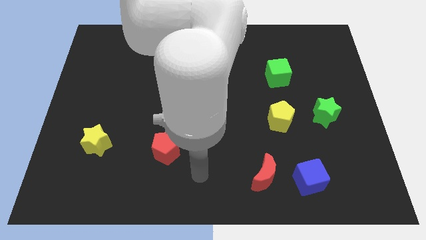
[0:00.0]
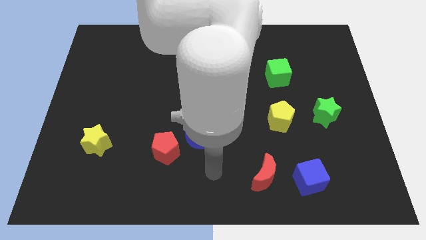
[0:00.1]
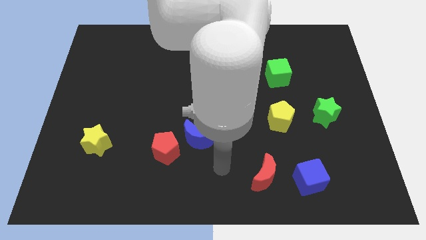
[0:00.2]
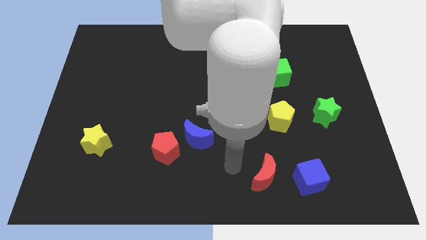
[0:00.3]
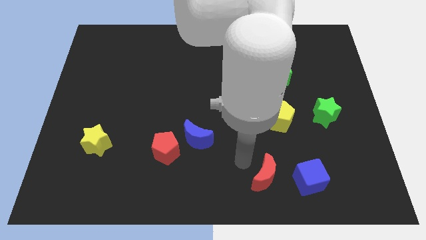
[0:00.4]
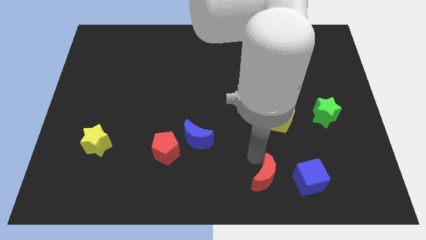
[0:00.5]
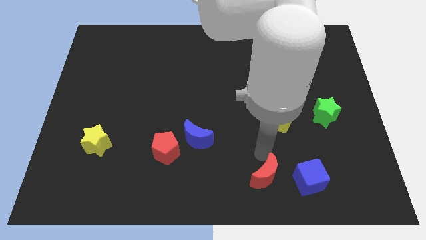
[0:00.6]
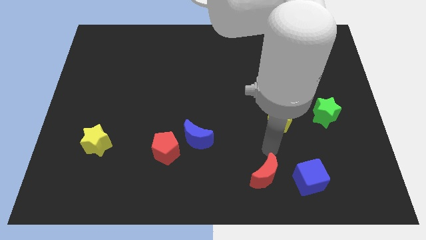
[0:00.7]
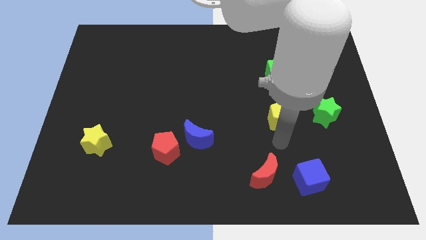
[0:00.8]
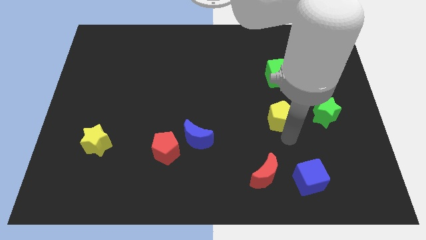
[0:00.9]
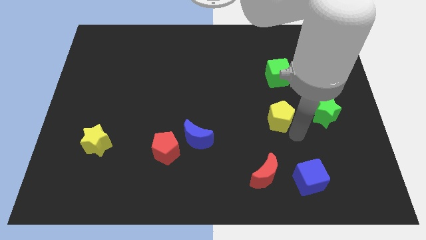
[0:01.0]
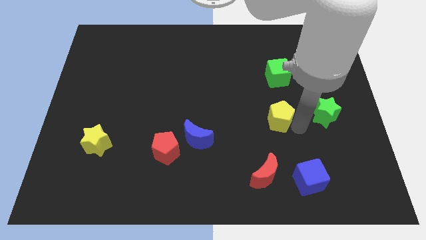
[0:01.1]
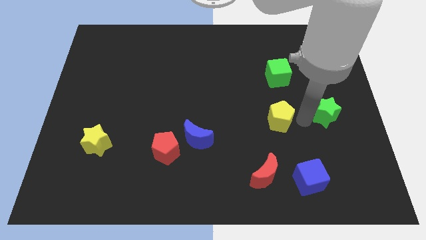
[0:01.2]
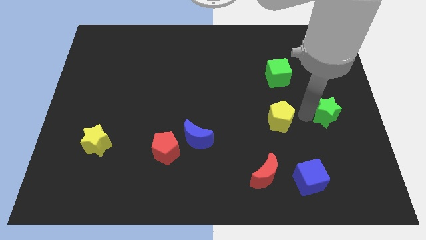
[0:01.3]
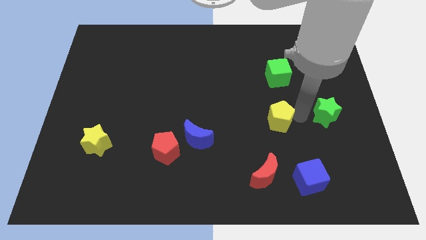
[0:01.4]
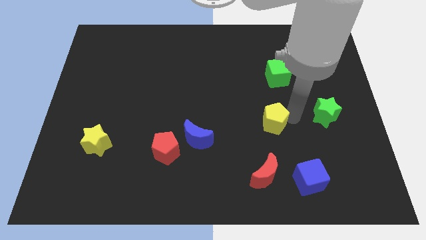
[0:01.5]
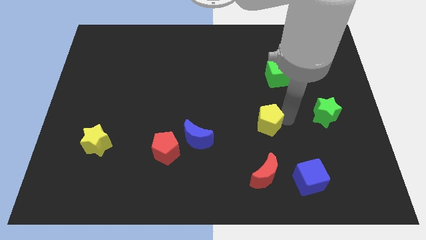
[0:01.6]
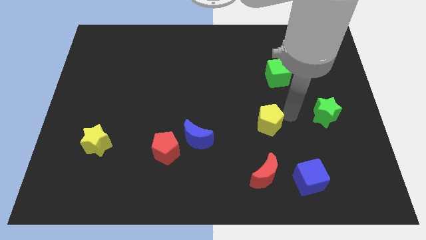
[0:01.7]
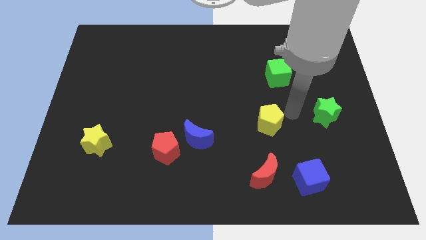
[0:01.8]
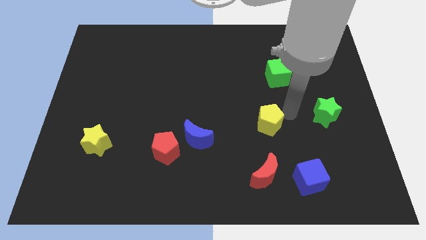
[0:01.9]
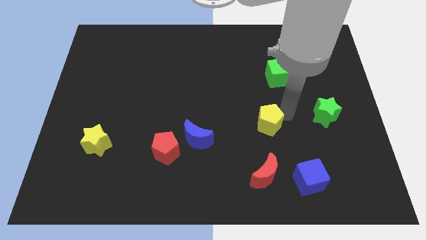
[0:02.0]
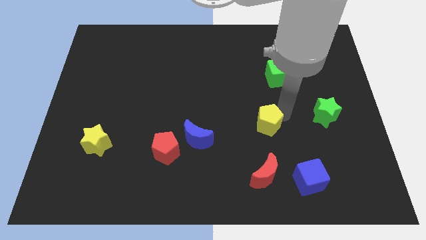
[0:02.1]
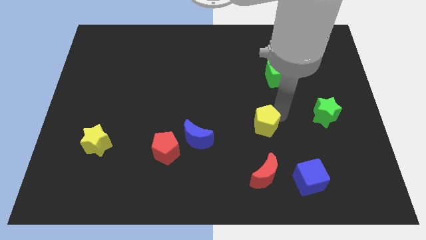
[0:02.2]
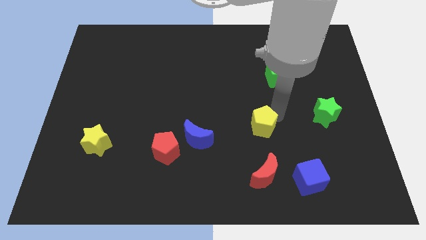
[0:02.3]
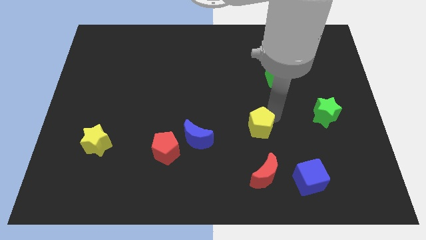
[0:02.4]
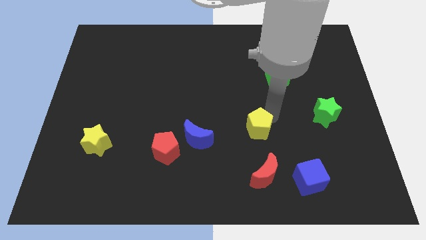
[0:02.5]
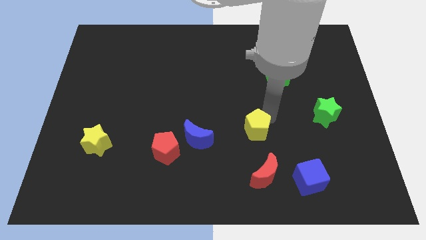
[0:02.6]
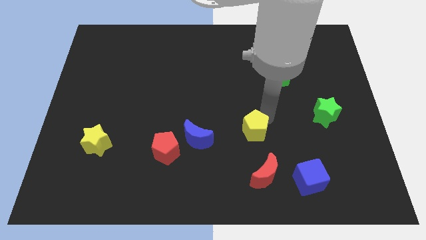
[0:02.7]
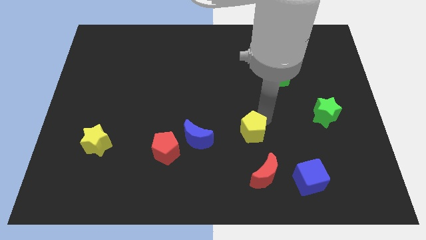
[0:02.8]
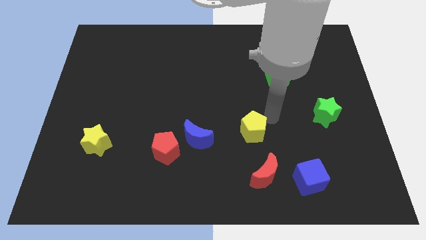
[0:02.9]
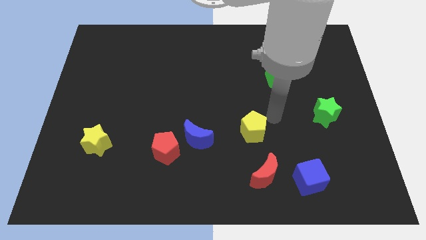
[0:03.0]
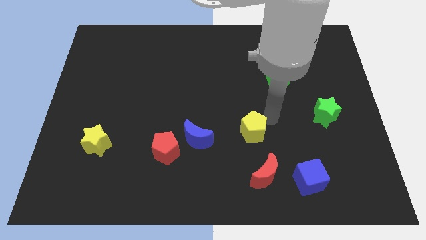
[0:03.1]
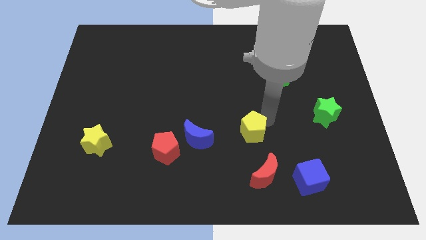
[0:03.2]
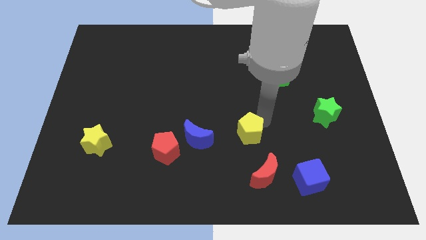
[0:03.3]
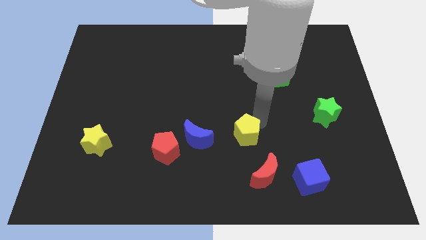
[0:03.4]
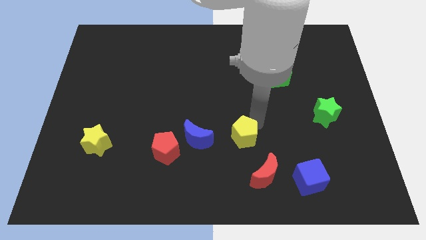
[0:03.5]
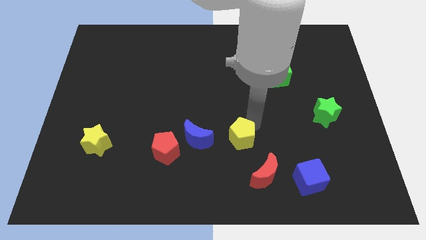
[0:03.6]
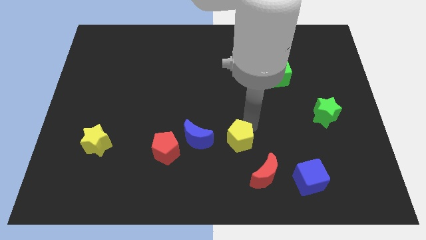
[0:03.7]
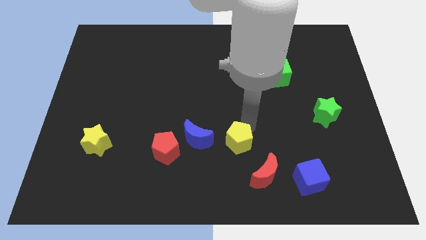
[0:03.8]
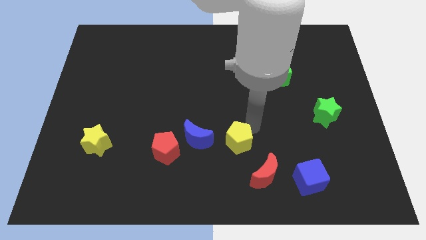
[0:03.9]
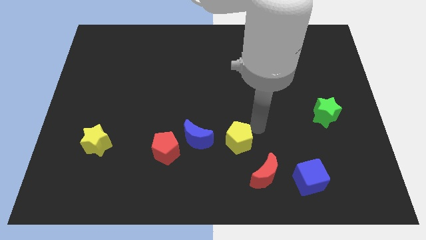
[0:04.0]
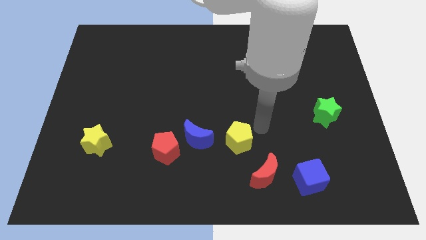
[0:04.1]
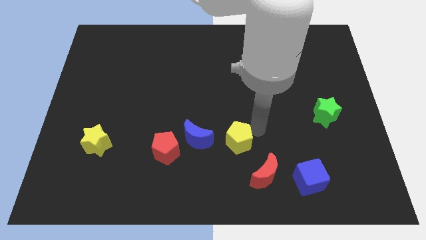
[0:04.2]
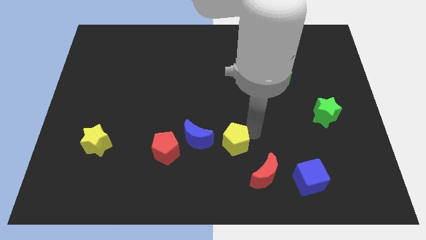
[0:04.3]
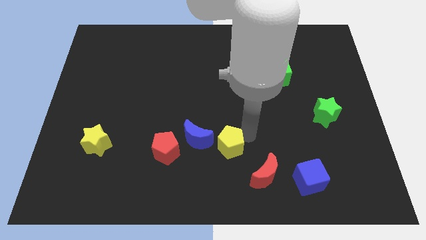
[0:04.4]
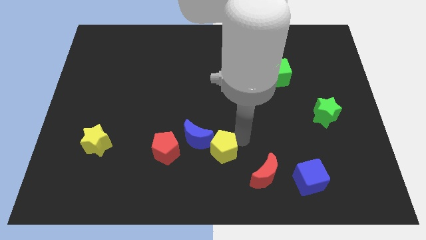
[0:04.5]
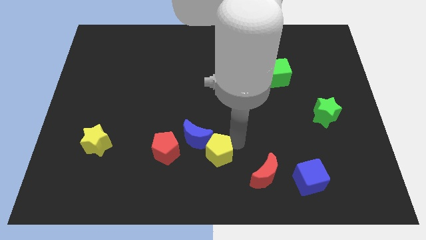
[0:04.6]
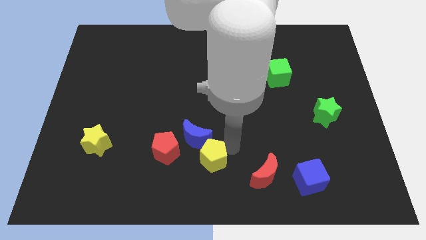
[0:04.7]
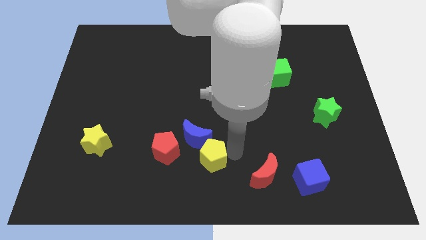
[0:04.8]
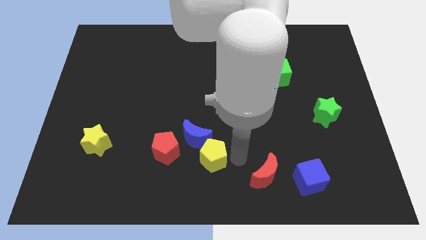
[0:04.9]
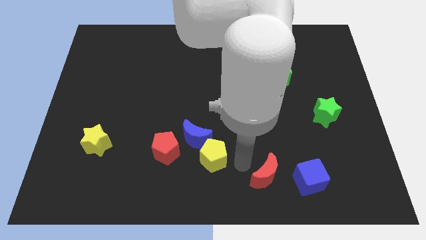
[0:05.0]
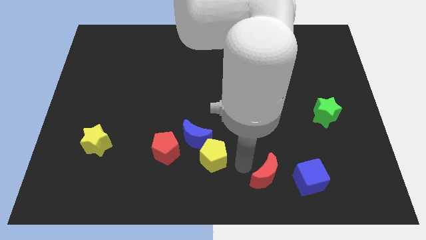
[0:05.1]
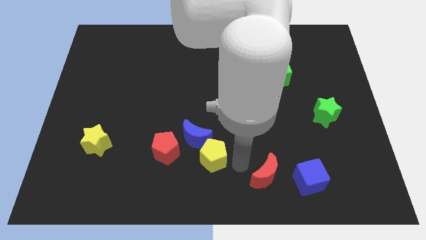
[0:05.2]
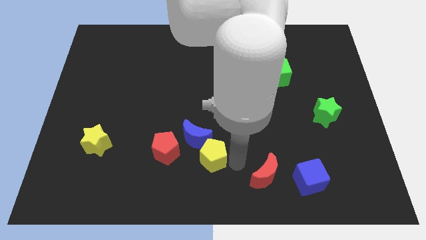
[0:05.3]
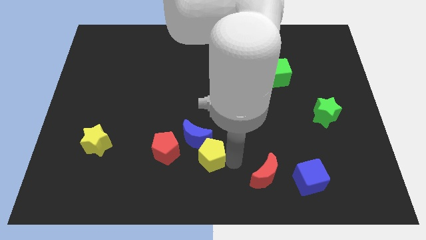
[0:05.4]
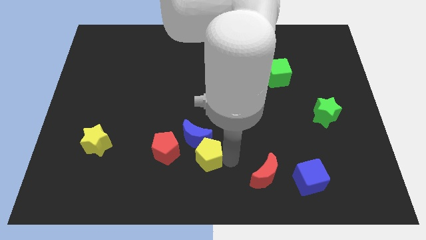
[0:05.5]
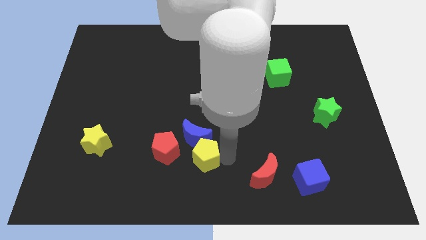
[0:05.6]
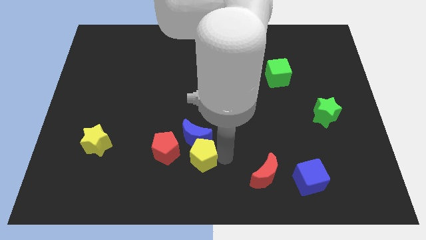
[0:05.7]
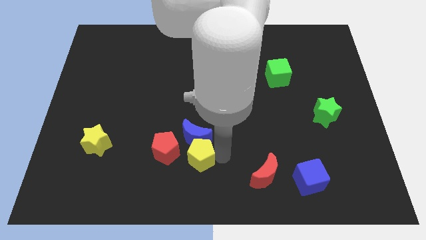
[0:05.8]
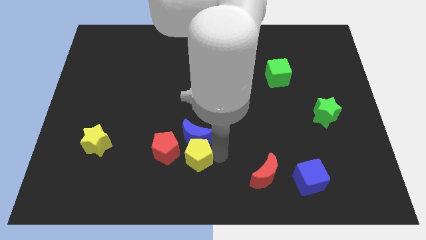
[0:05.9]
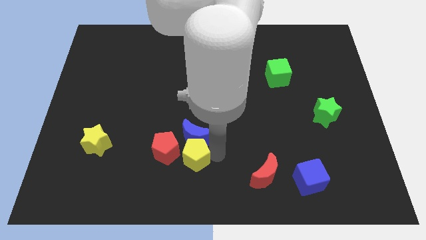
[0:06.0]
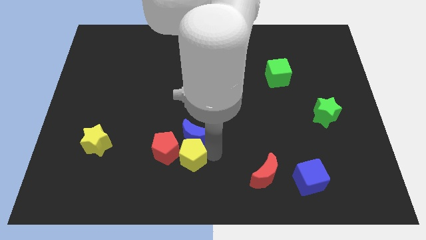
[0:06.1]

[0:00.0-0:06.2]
put the yellow pentagon to the red pentagon

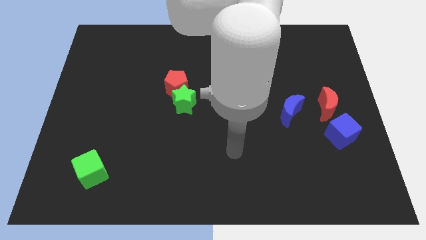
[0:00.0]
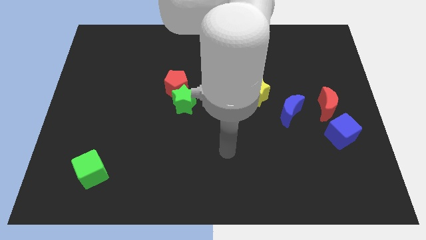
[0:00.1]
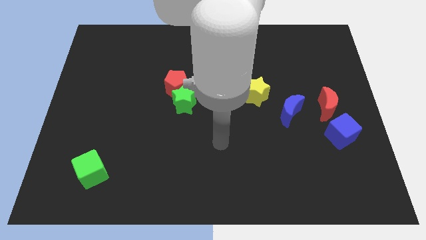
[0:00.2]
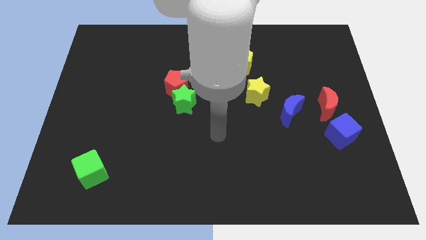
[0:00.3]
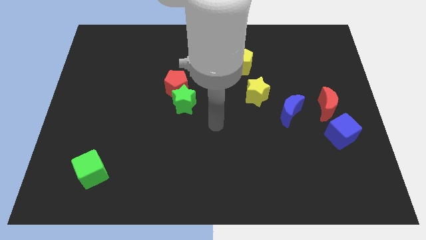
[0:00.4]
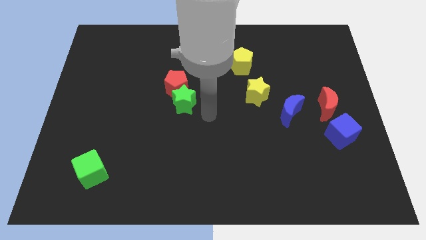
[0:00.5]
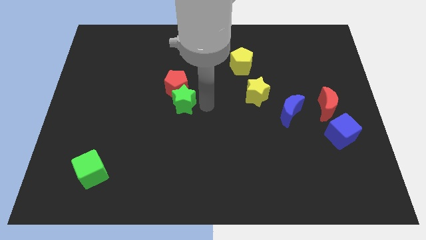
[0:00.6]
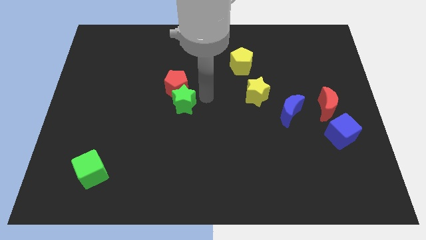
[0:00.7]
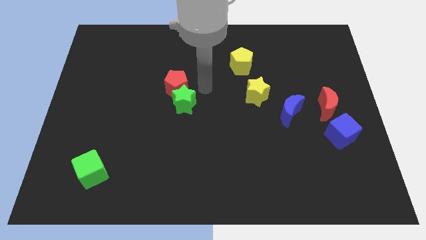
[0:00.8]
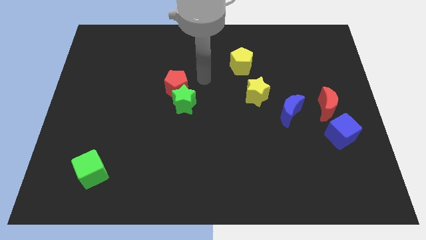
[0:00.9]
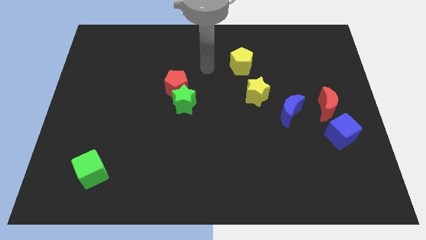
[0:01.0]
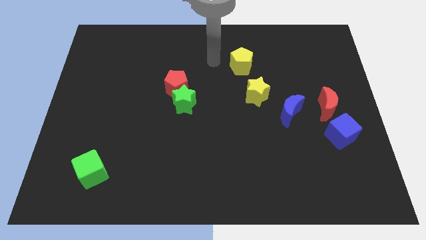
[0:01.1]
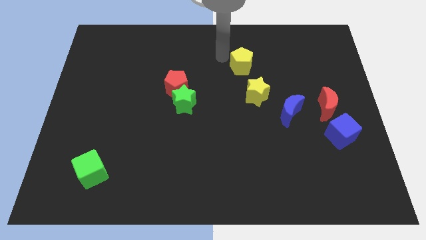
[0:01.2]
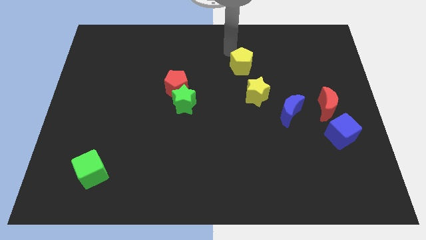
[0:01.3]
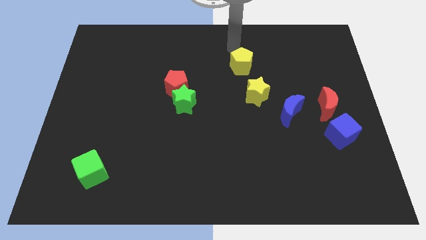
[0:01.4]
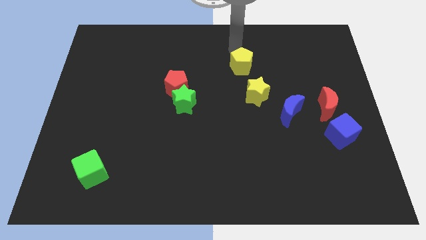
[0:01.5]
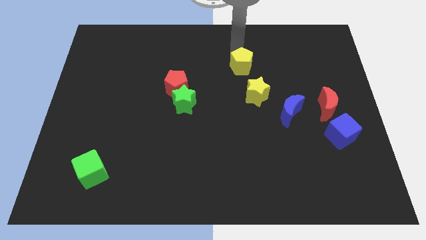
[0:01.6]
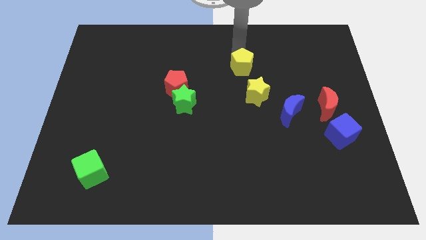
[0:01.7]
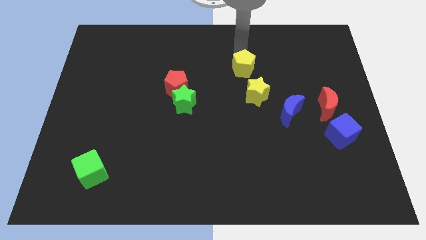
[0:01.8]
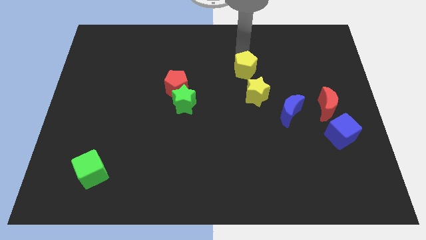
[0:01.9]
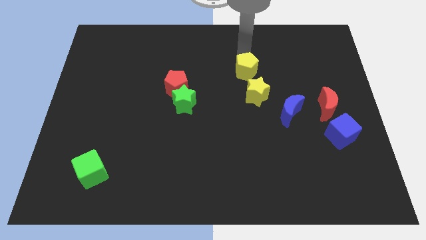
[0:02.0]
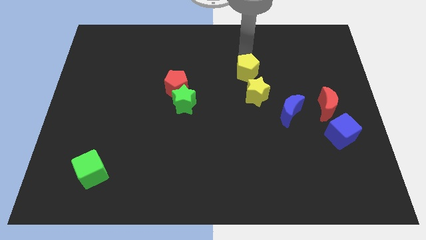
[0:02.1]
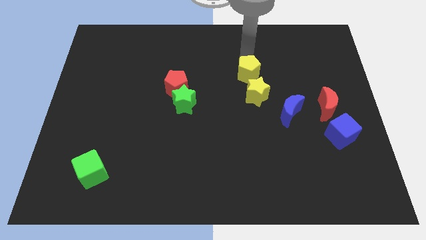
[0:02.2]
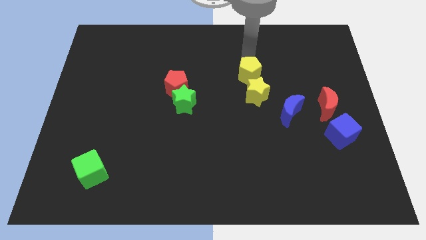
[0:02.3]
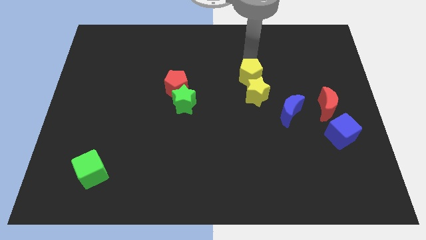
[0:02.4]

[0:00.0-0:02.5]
push the yellow pentagon towards the yellow star
